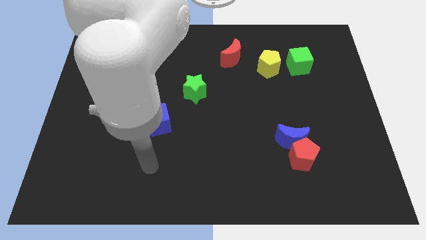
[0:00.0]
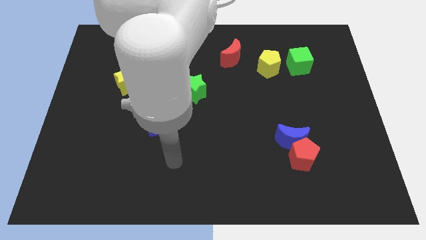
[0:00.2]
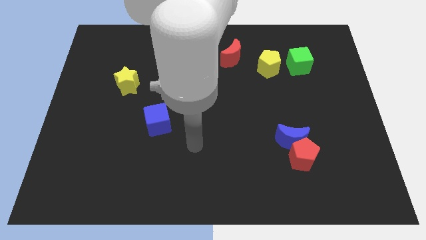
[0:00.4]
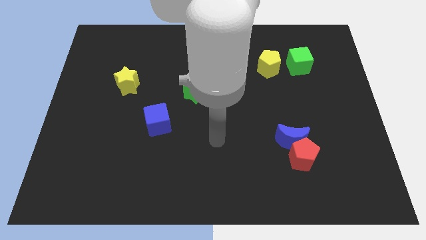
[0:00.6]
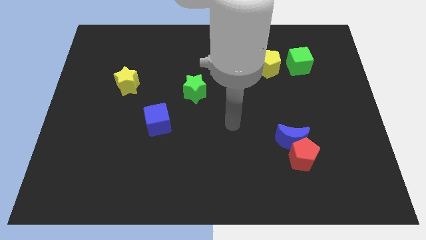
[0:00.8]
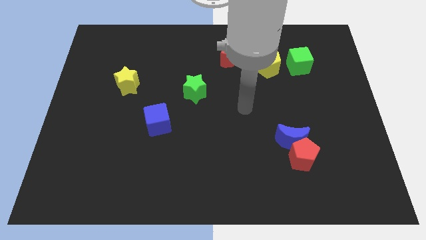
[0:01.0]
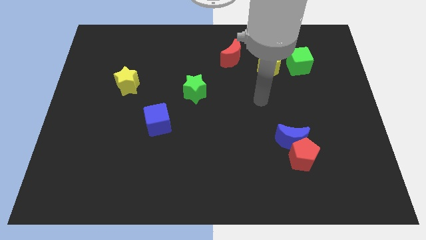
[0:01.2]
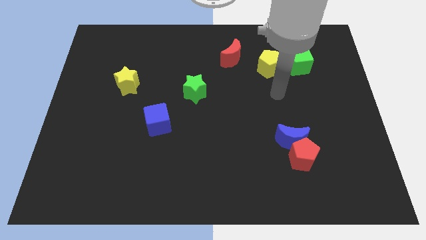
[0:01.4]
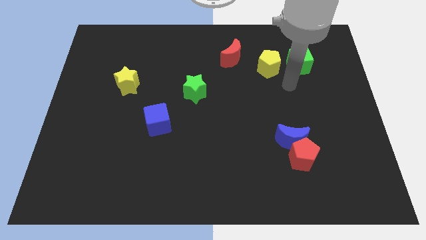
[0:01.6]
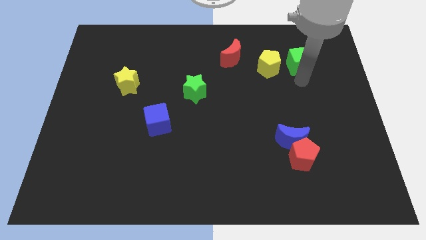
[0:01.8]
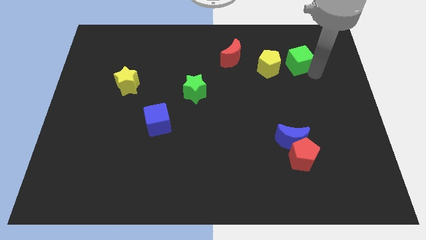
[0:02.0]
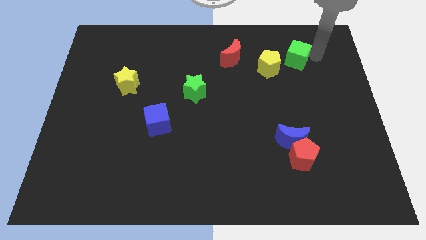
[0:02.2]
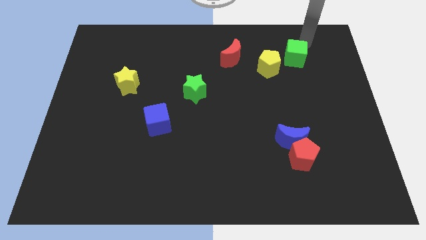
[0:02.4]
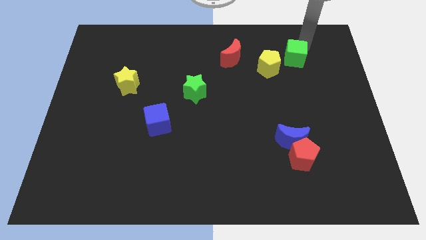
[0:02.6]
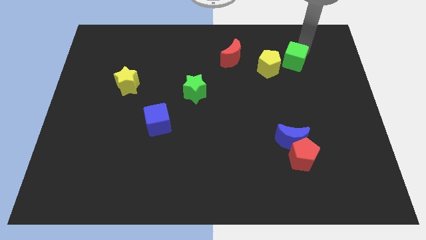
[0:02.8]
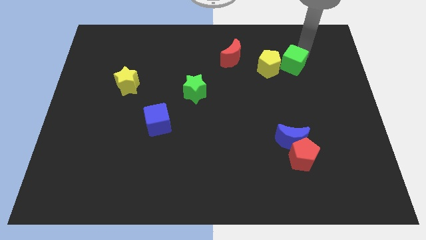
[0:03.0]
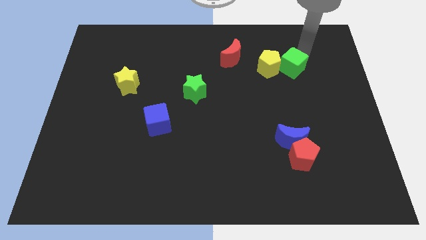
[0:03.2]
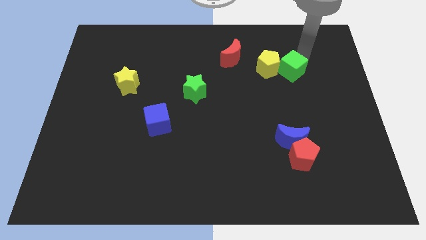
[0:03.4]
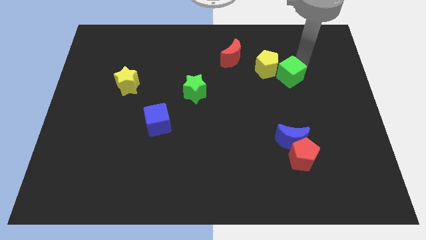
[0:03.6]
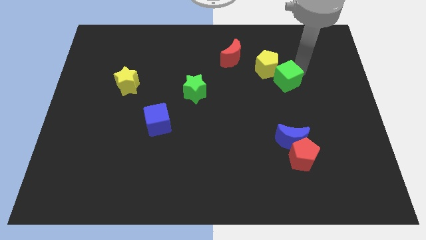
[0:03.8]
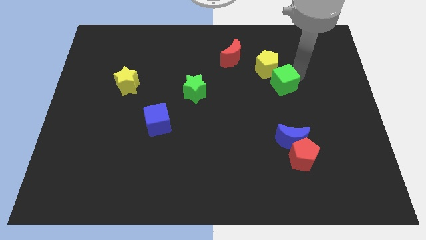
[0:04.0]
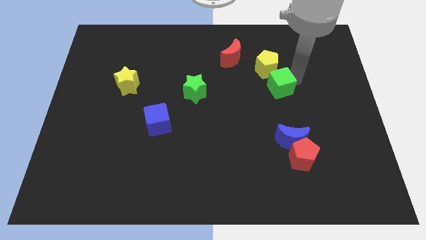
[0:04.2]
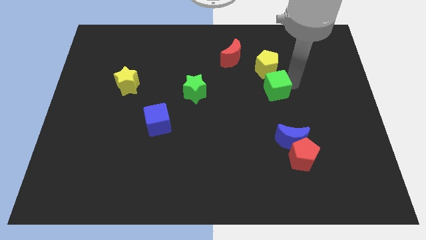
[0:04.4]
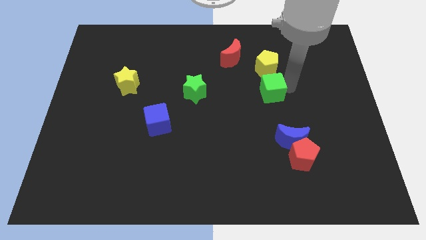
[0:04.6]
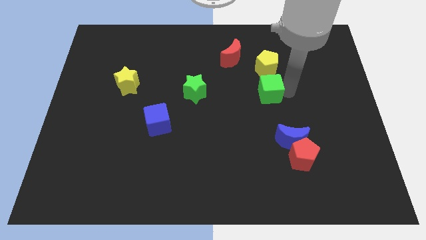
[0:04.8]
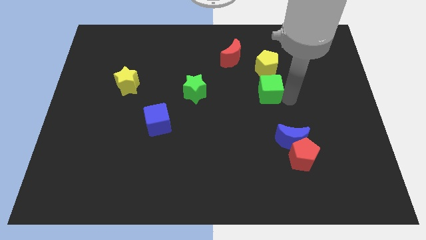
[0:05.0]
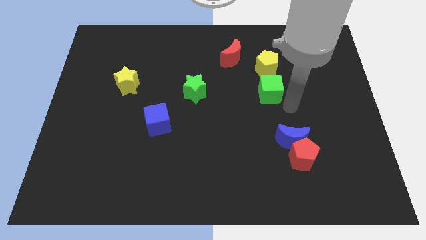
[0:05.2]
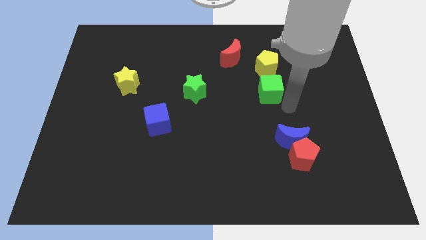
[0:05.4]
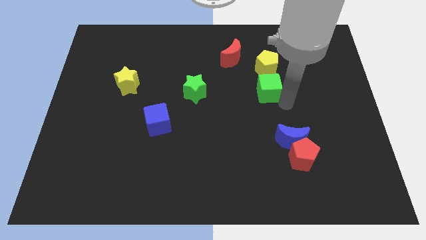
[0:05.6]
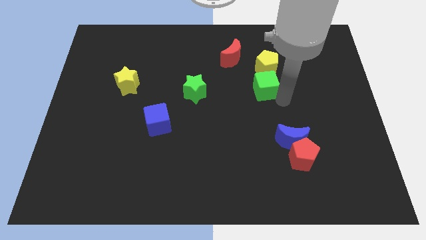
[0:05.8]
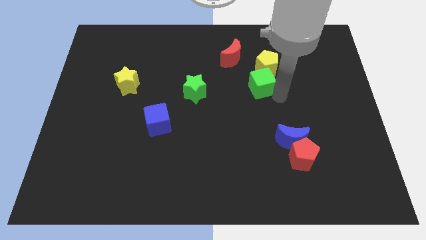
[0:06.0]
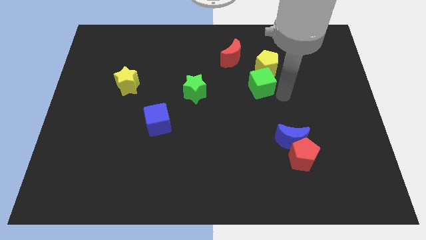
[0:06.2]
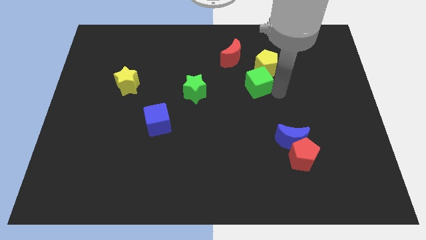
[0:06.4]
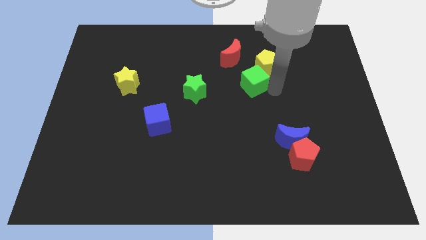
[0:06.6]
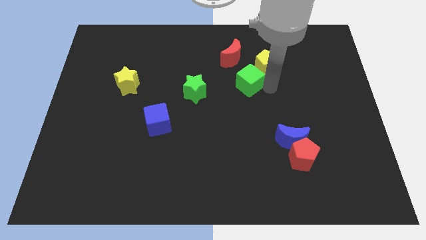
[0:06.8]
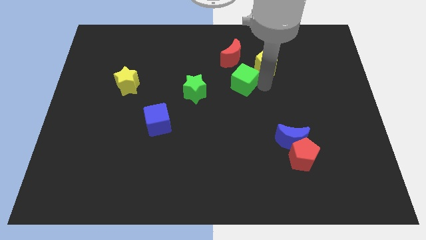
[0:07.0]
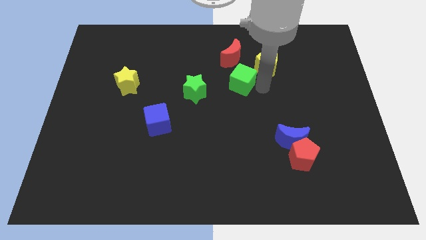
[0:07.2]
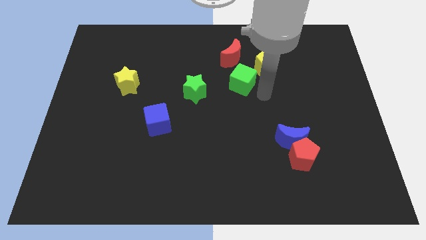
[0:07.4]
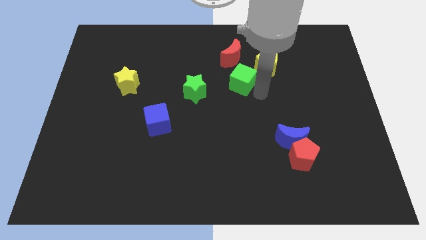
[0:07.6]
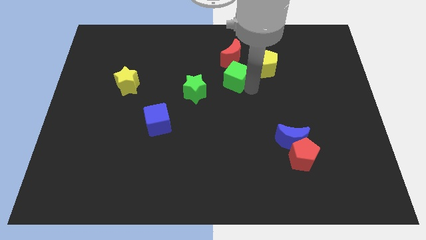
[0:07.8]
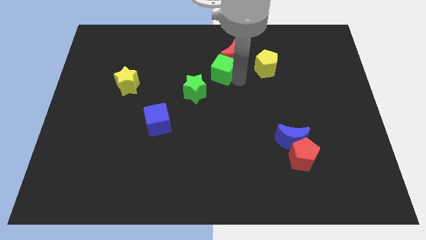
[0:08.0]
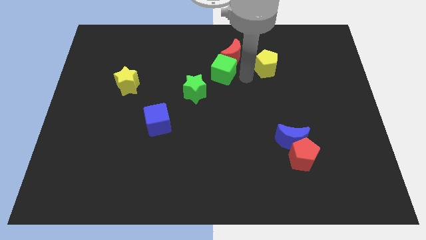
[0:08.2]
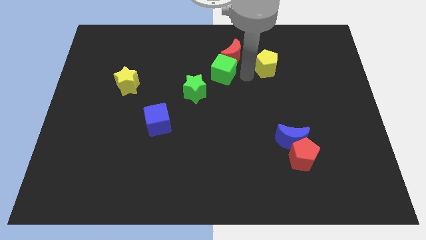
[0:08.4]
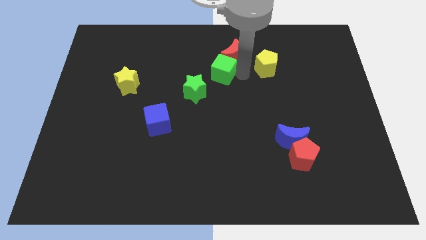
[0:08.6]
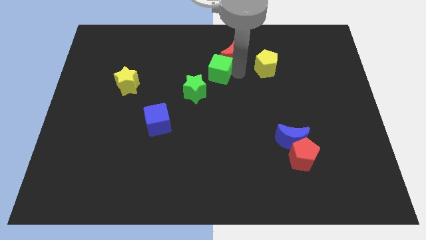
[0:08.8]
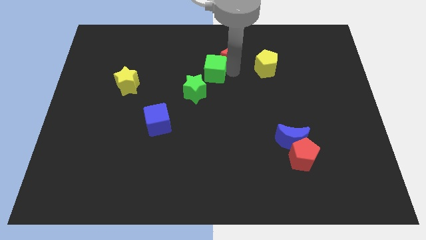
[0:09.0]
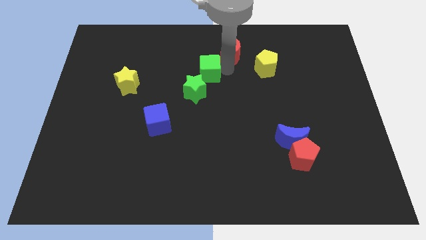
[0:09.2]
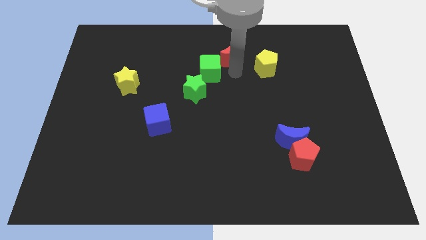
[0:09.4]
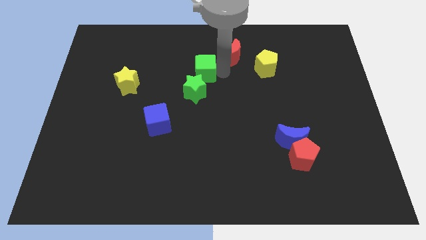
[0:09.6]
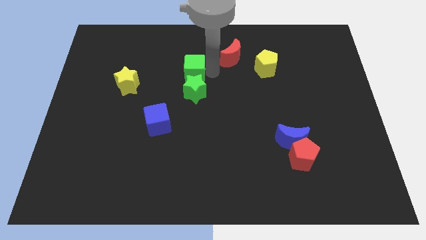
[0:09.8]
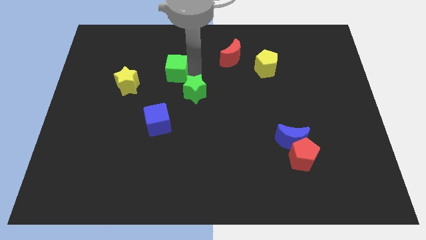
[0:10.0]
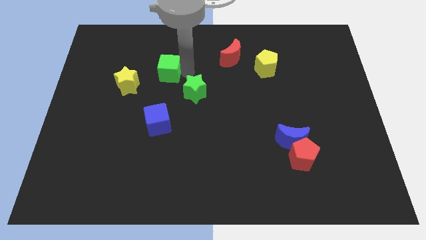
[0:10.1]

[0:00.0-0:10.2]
put the green cube to the top right side of the yellow star

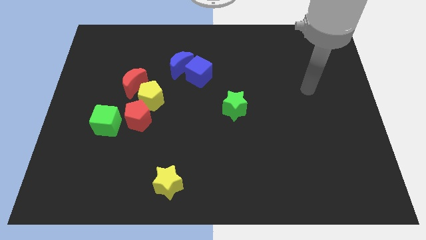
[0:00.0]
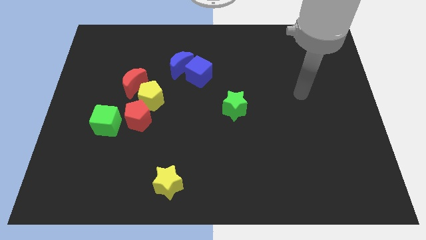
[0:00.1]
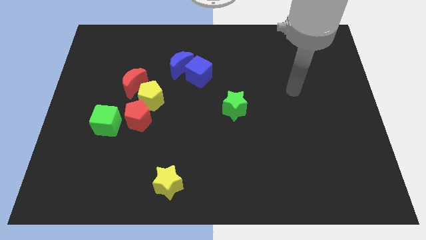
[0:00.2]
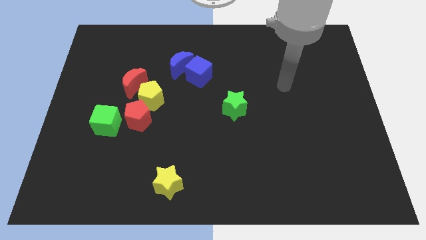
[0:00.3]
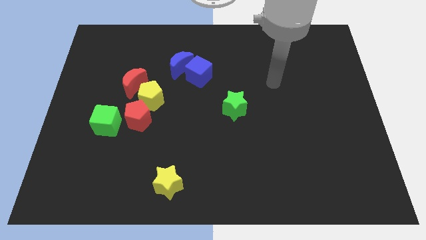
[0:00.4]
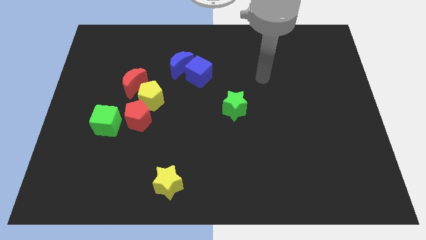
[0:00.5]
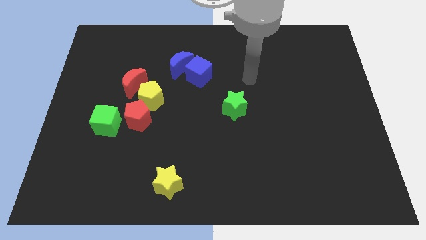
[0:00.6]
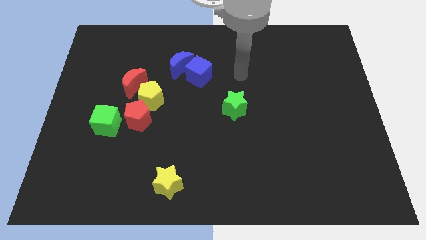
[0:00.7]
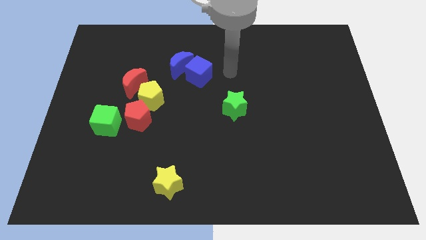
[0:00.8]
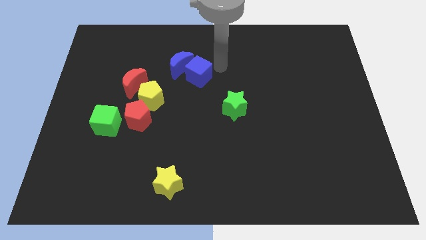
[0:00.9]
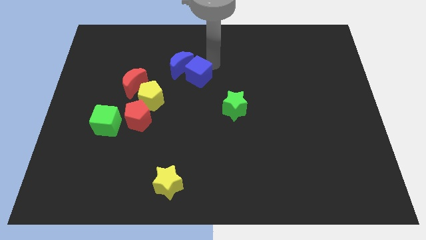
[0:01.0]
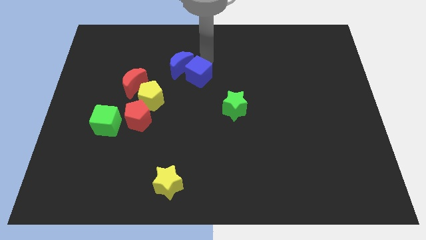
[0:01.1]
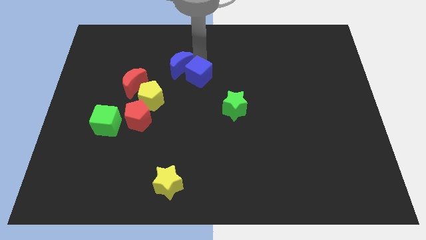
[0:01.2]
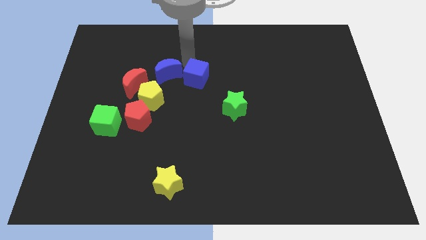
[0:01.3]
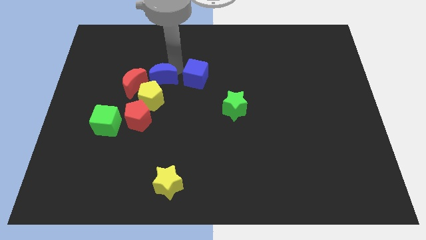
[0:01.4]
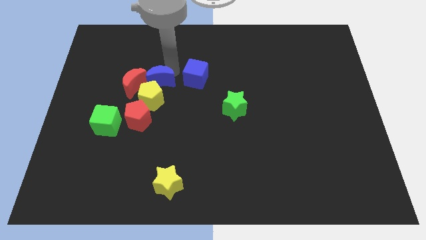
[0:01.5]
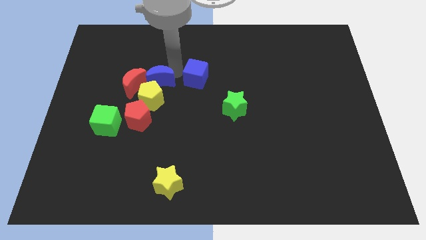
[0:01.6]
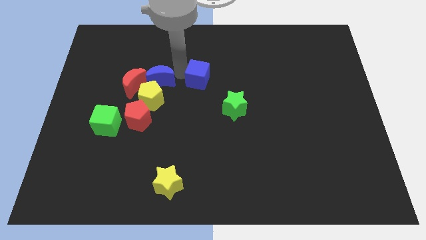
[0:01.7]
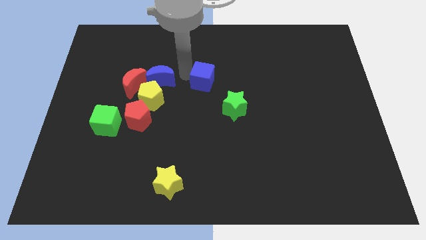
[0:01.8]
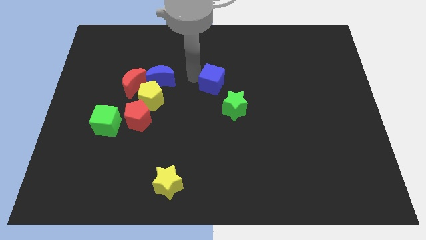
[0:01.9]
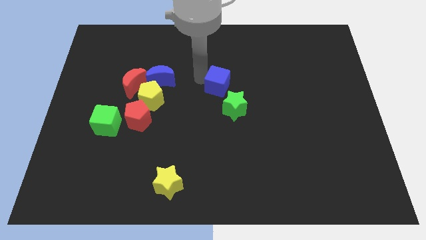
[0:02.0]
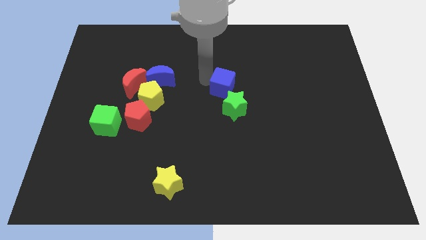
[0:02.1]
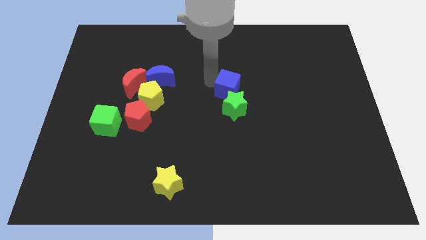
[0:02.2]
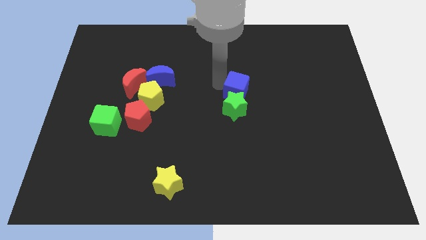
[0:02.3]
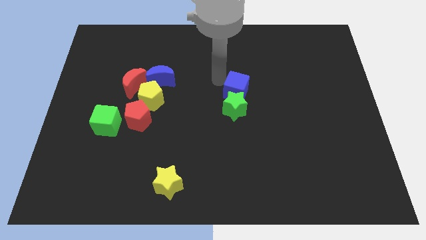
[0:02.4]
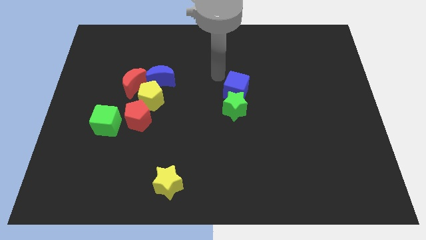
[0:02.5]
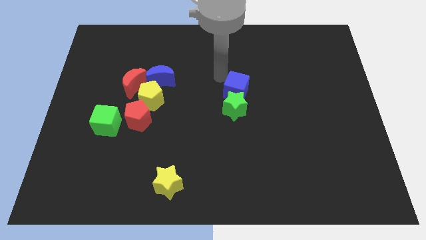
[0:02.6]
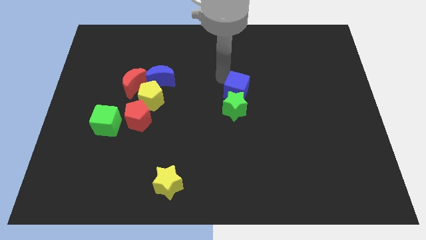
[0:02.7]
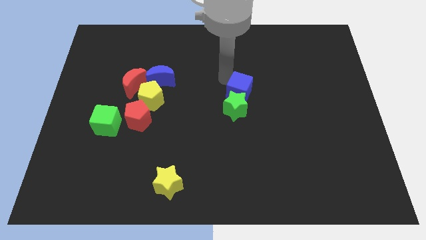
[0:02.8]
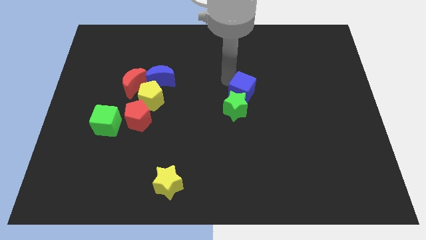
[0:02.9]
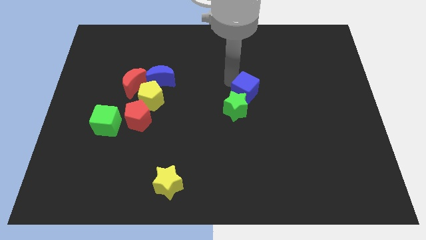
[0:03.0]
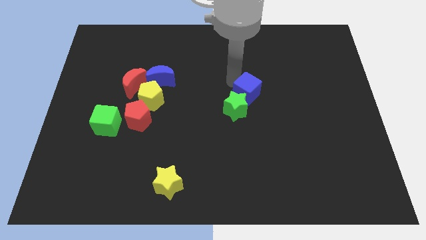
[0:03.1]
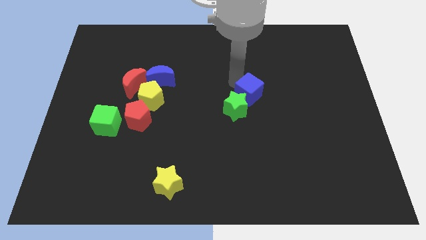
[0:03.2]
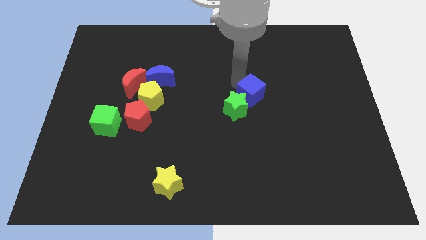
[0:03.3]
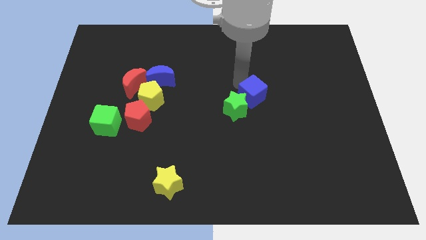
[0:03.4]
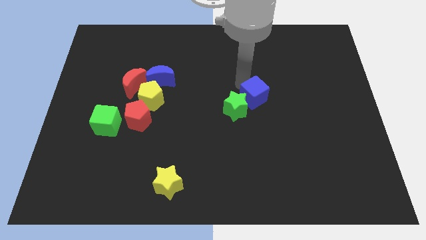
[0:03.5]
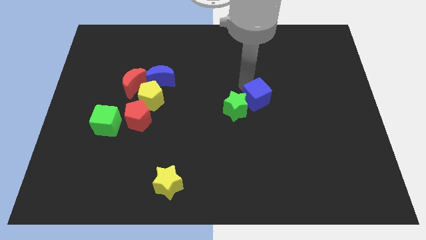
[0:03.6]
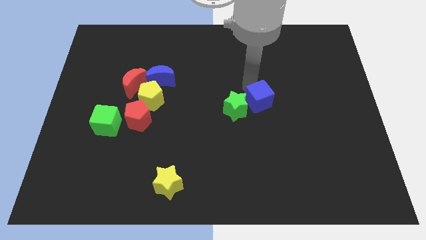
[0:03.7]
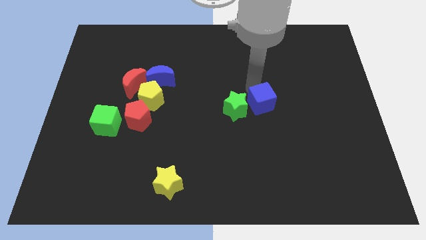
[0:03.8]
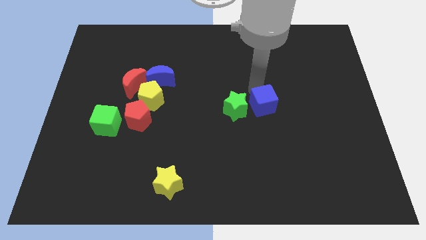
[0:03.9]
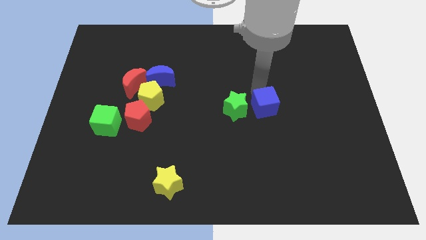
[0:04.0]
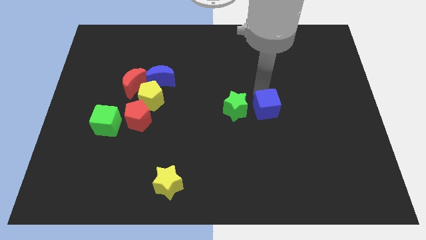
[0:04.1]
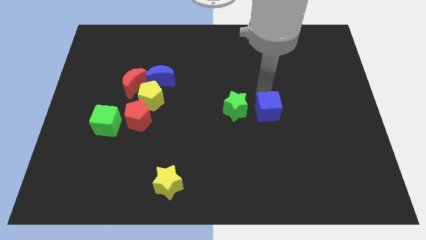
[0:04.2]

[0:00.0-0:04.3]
move the blue cube to the bottom right side of the green star
